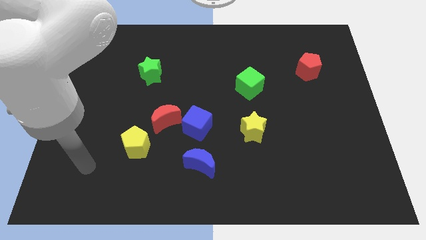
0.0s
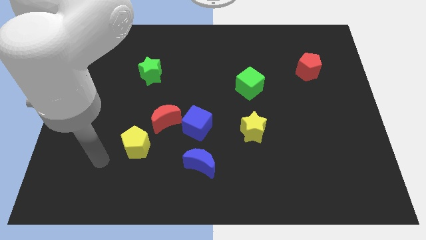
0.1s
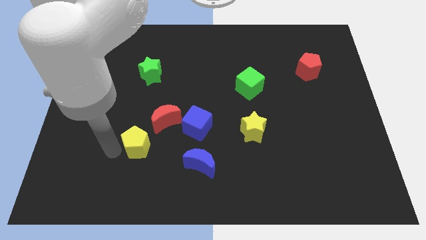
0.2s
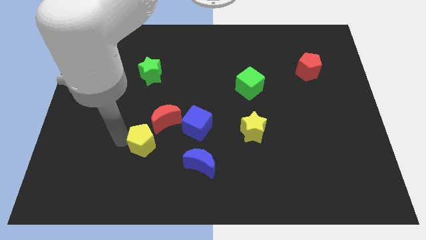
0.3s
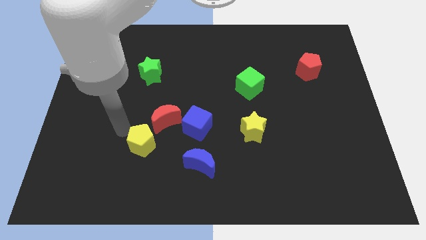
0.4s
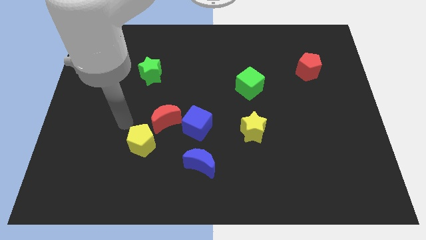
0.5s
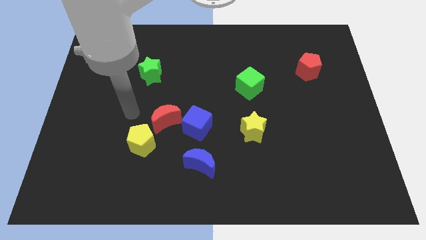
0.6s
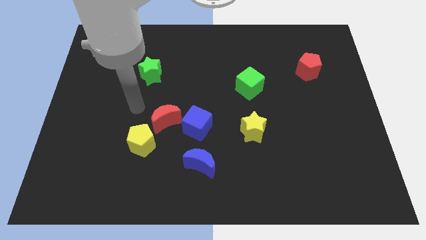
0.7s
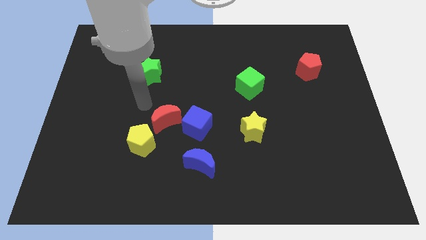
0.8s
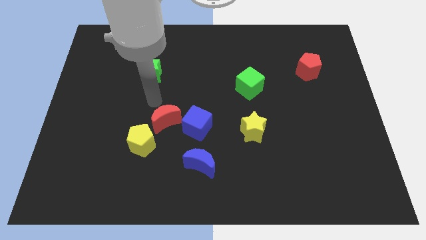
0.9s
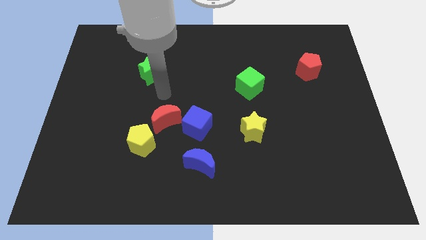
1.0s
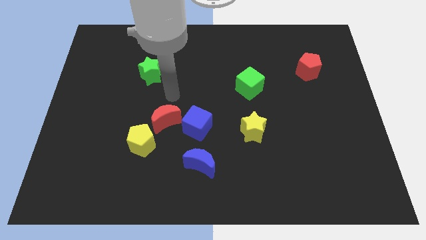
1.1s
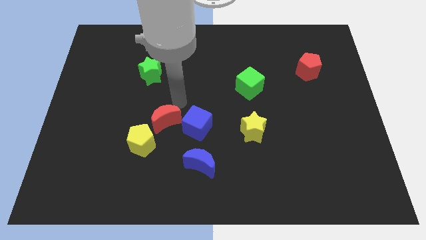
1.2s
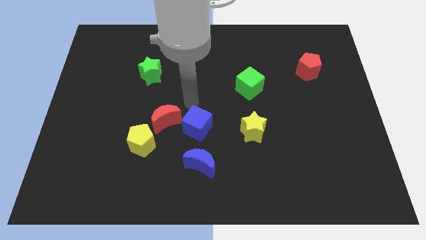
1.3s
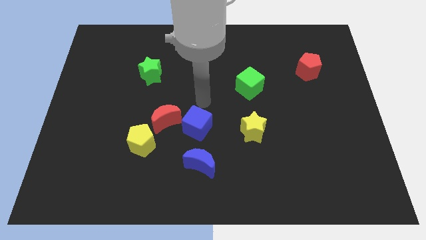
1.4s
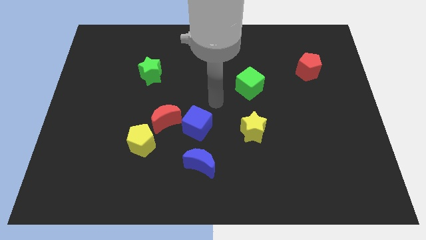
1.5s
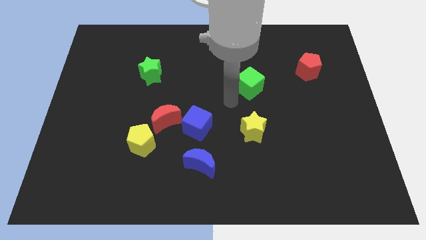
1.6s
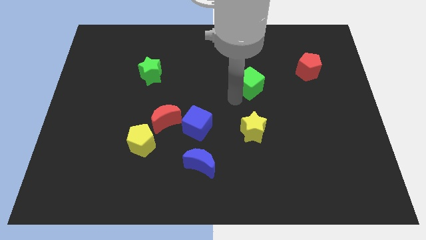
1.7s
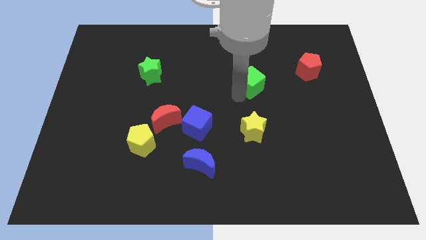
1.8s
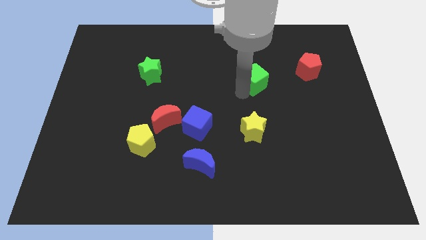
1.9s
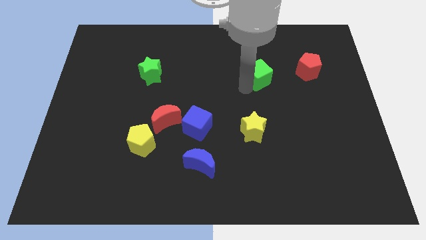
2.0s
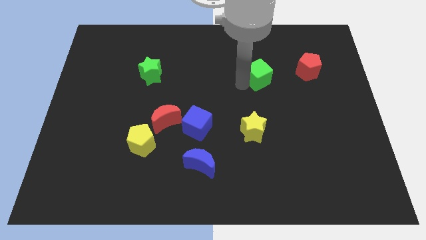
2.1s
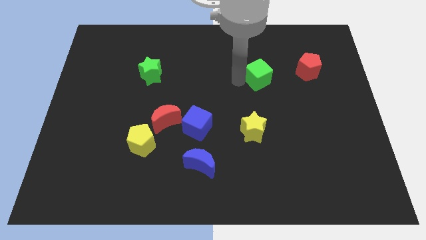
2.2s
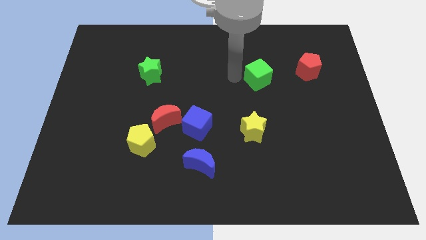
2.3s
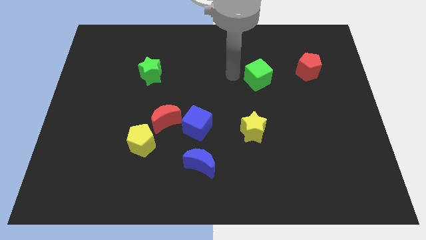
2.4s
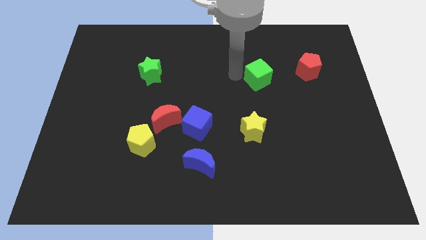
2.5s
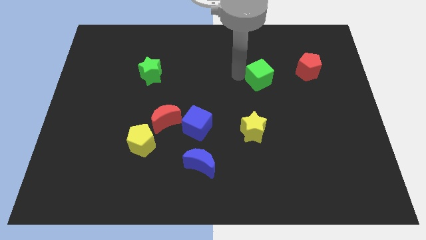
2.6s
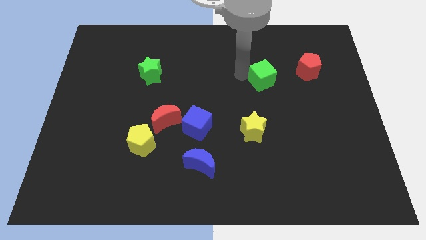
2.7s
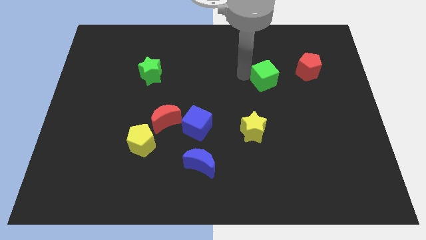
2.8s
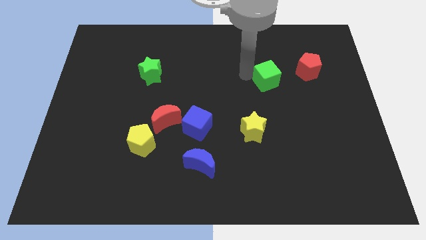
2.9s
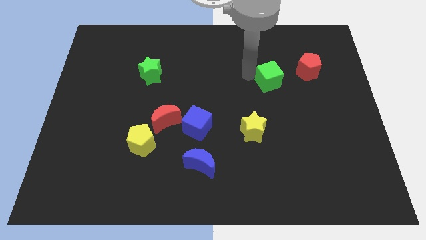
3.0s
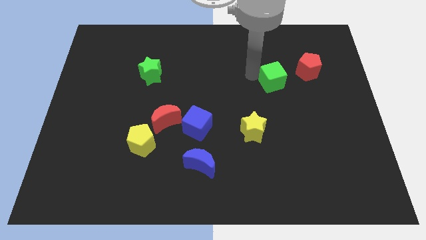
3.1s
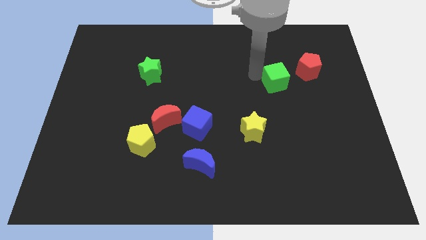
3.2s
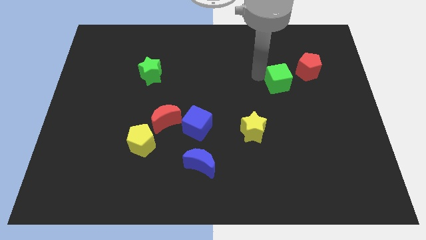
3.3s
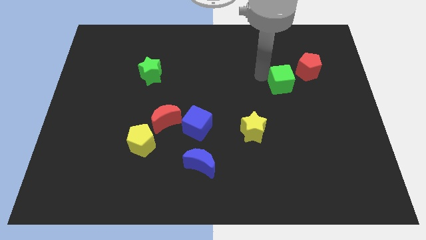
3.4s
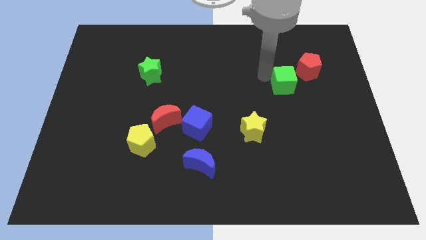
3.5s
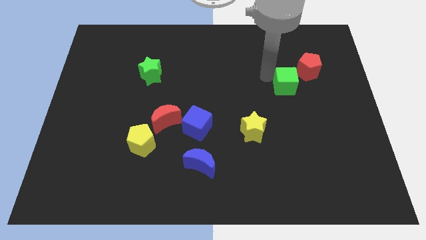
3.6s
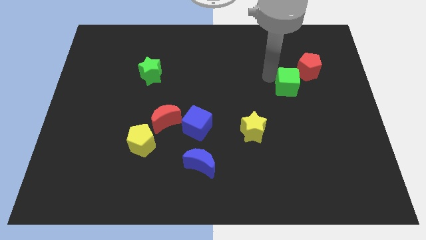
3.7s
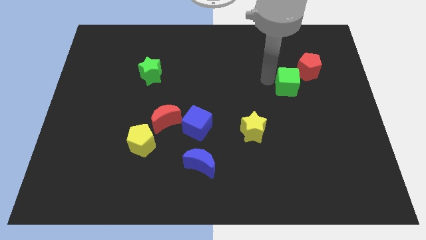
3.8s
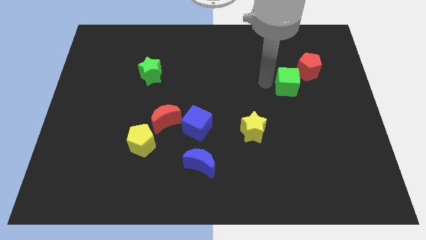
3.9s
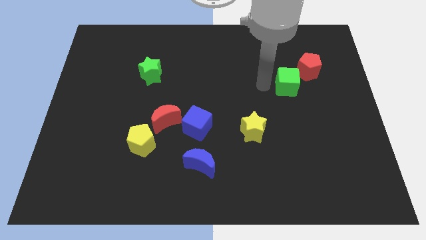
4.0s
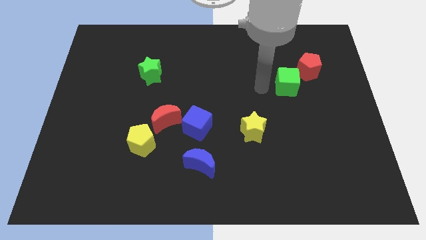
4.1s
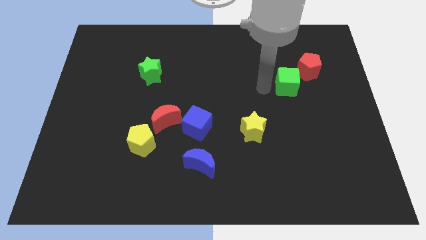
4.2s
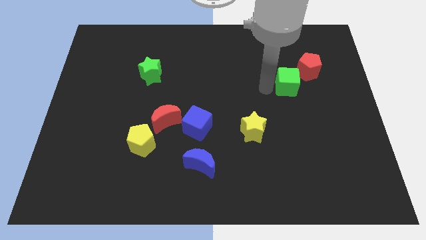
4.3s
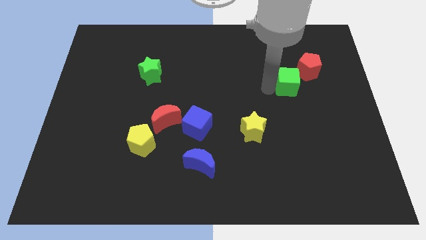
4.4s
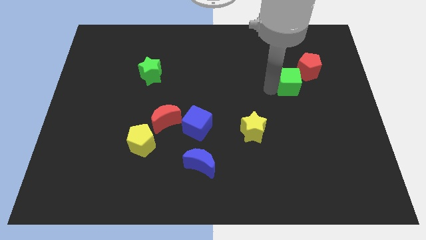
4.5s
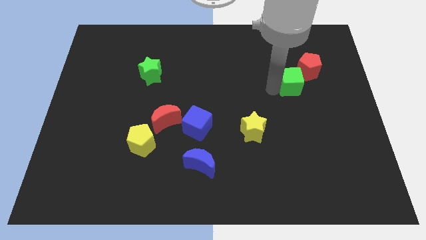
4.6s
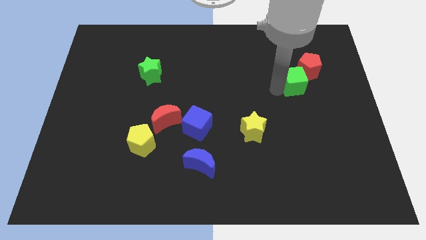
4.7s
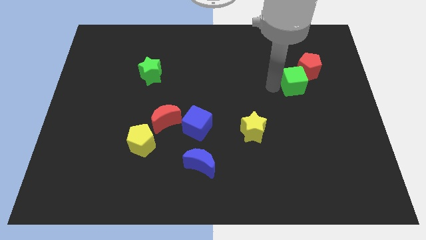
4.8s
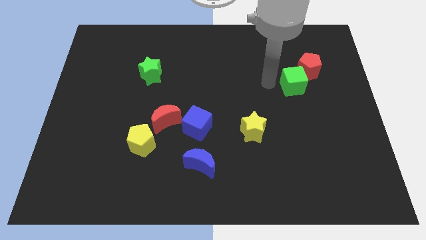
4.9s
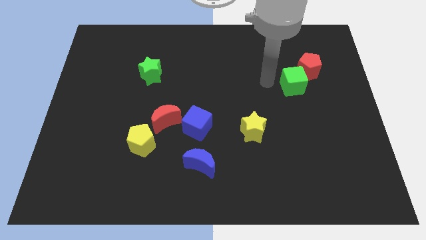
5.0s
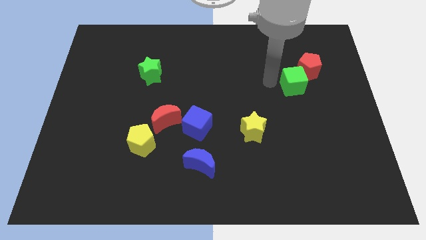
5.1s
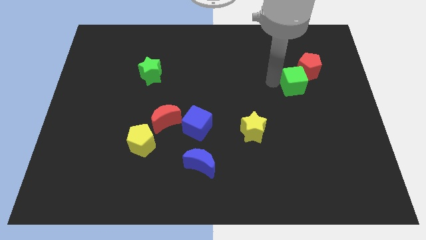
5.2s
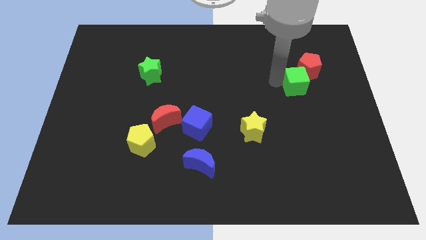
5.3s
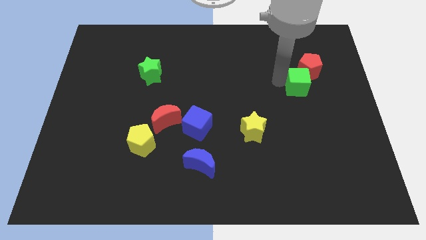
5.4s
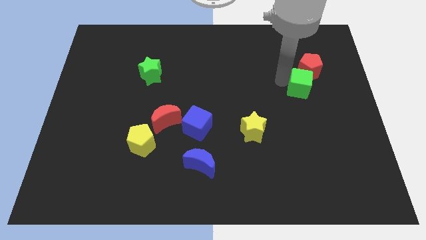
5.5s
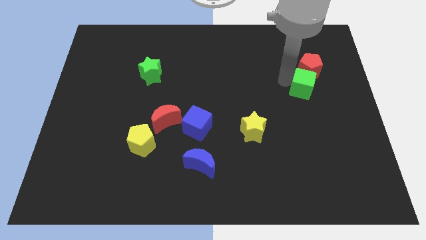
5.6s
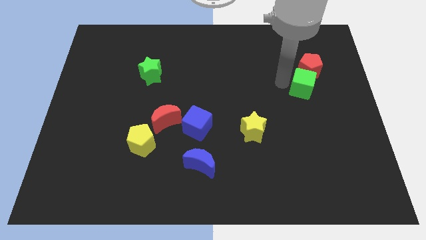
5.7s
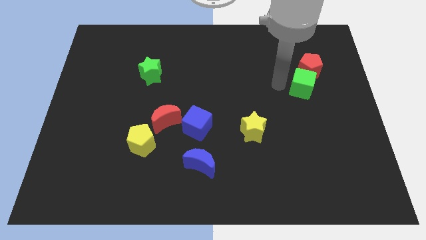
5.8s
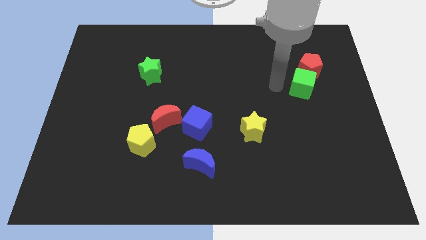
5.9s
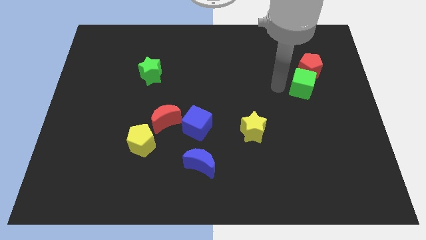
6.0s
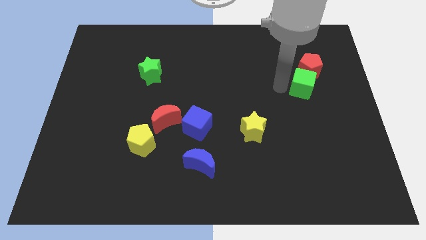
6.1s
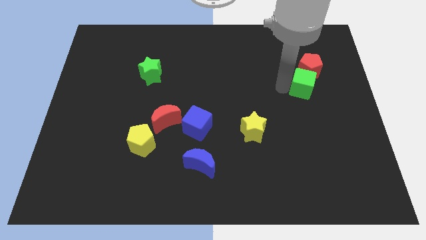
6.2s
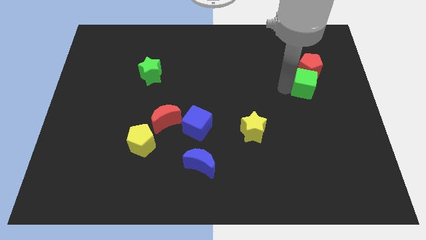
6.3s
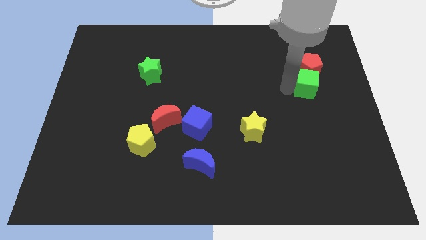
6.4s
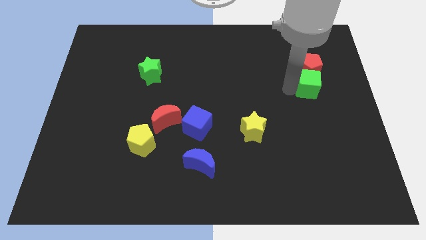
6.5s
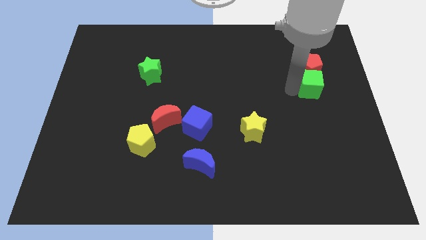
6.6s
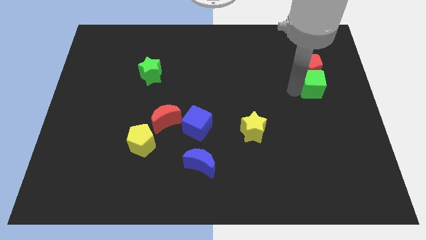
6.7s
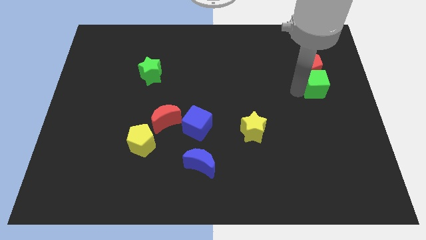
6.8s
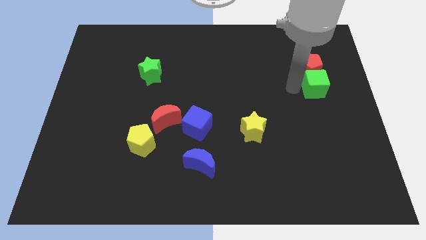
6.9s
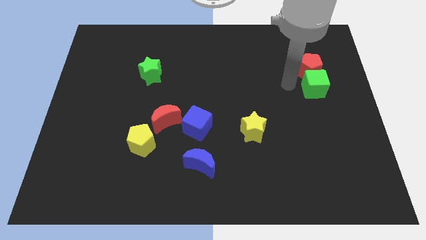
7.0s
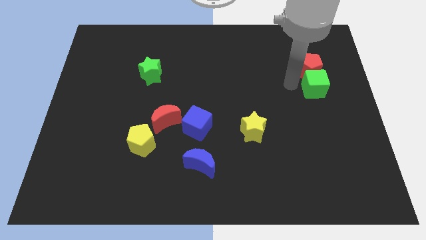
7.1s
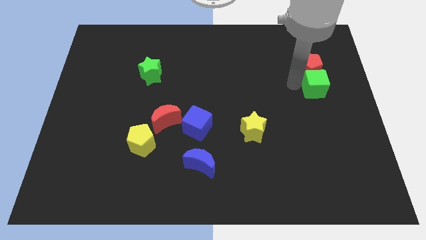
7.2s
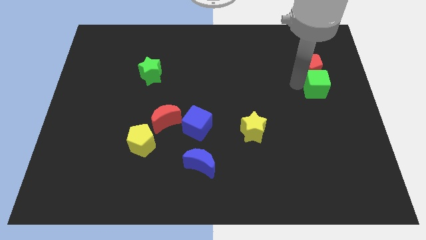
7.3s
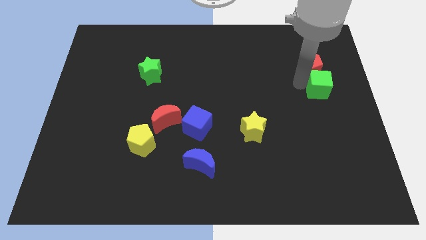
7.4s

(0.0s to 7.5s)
put the green cube to the center right
